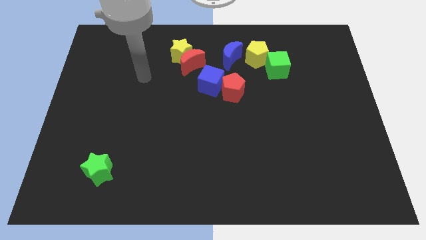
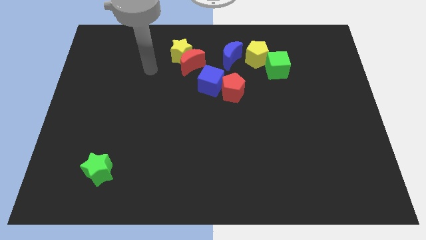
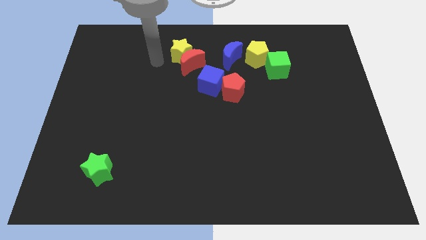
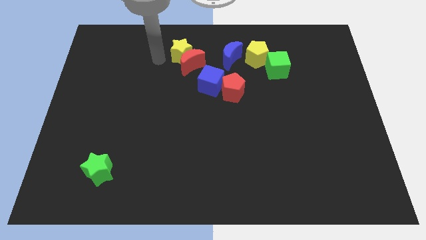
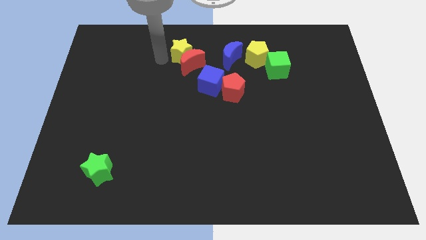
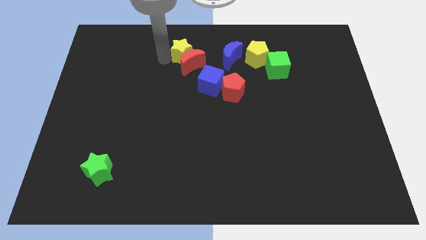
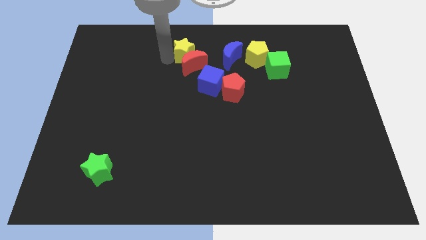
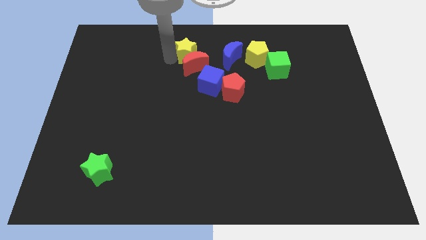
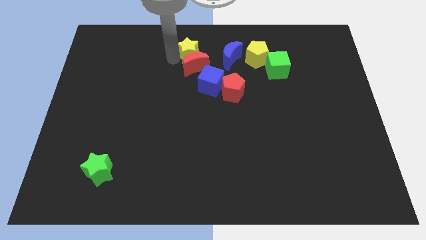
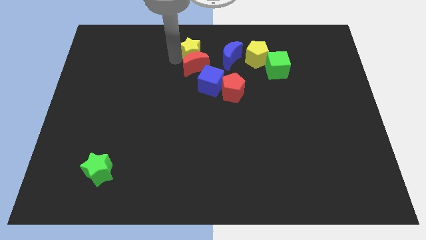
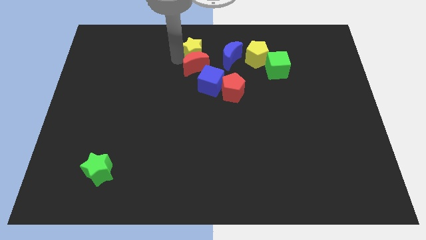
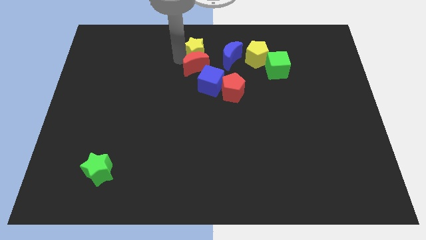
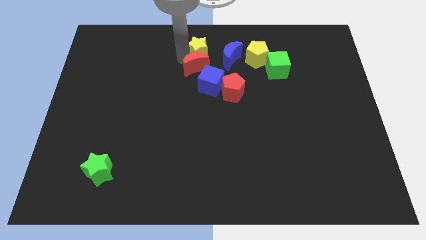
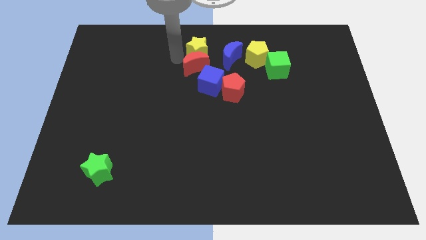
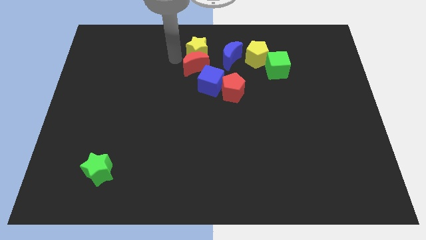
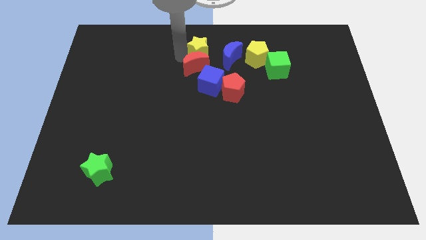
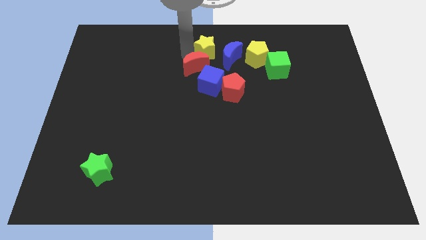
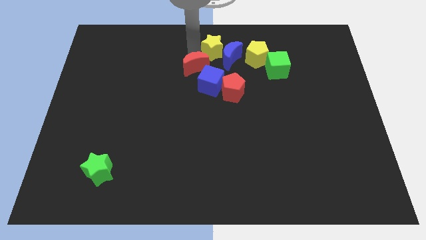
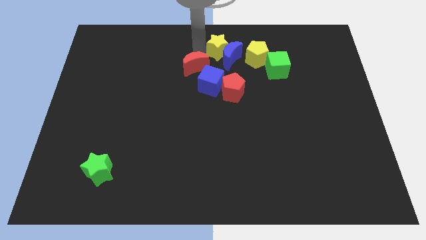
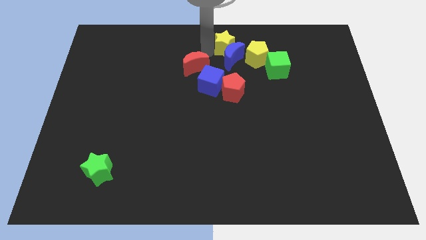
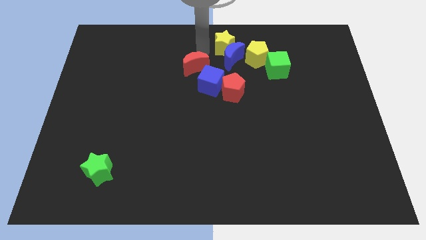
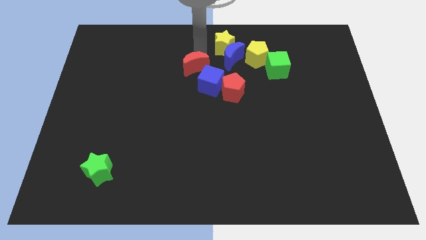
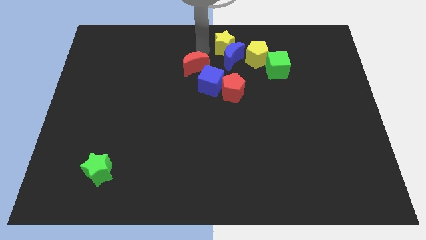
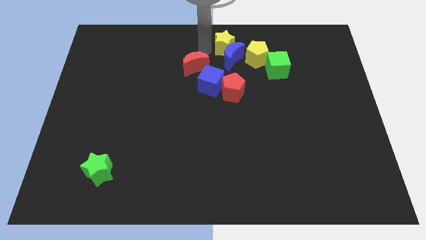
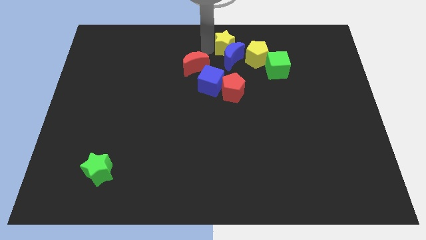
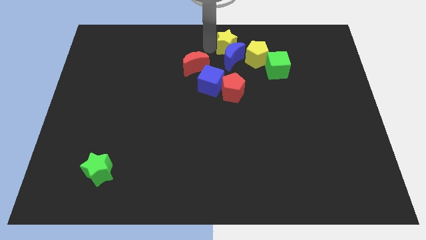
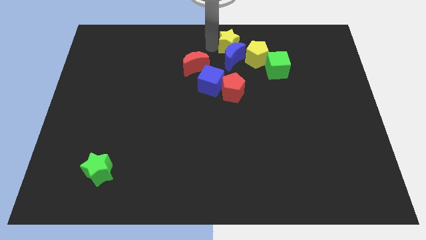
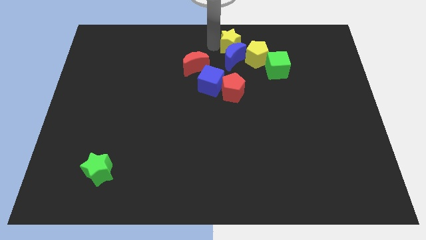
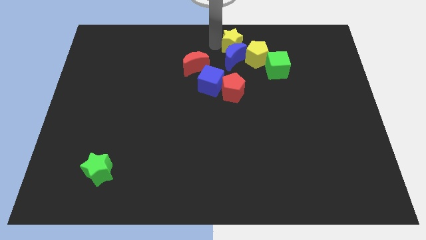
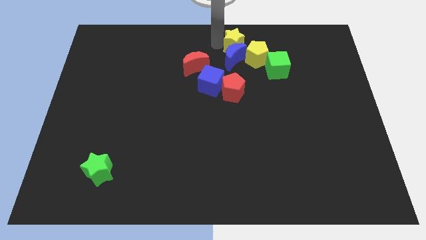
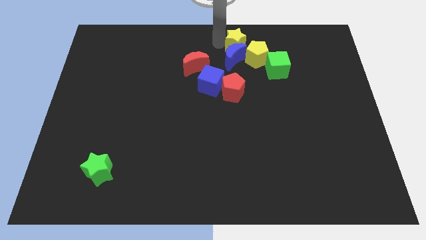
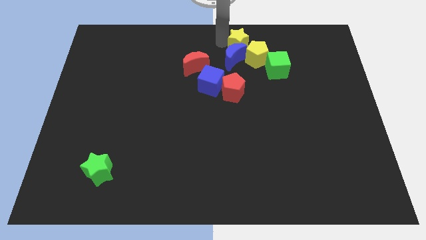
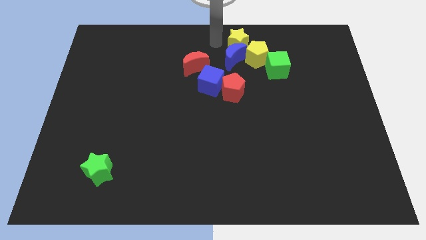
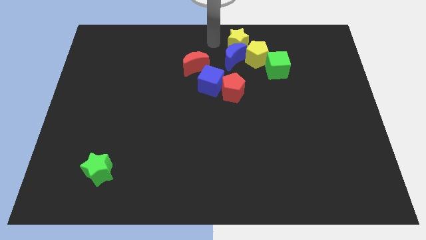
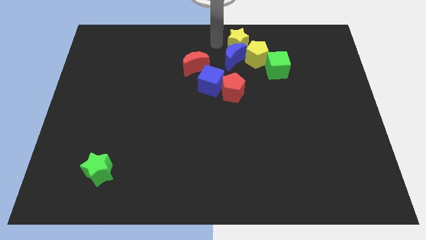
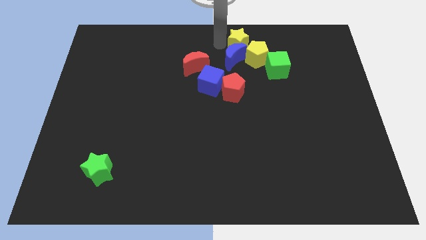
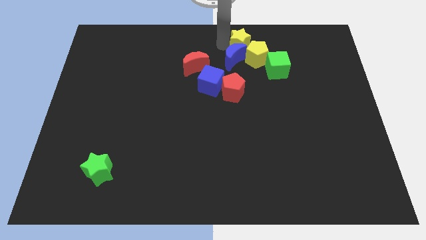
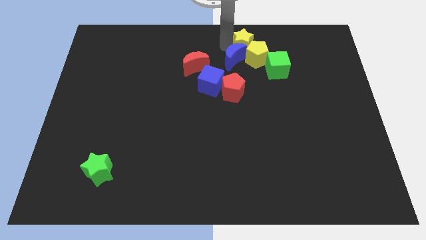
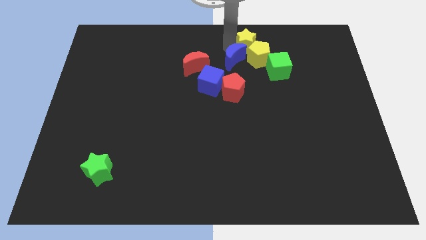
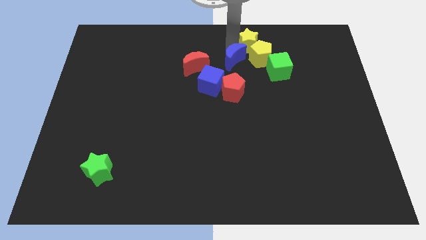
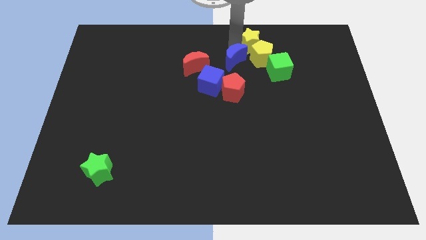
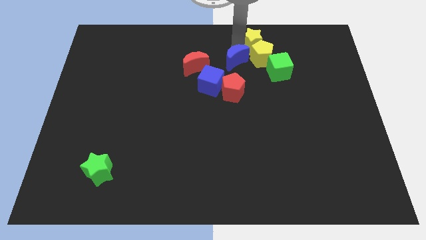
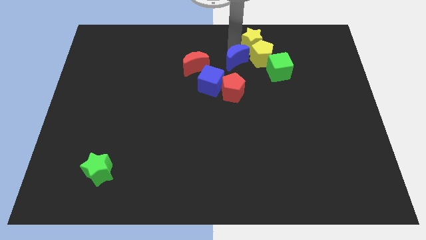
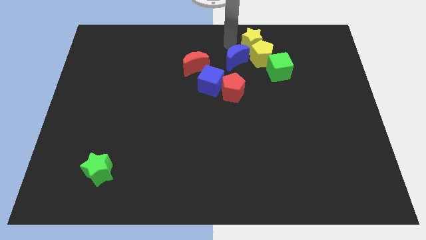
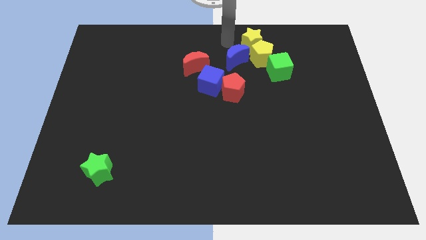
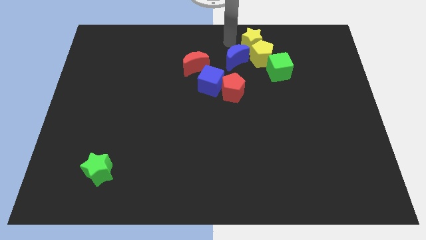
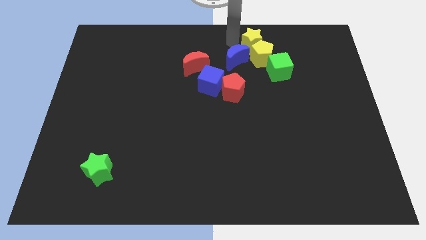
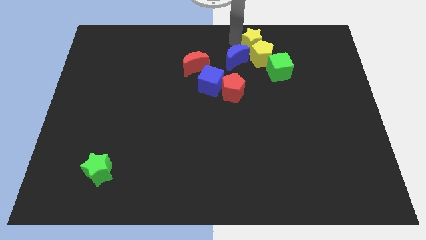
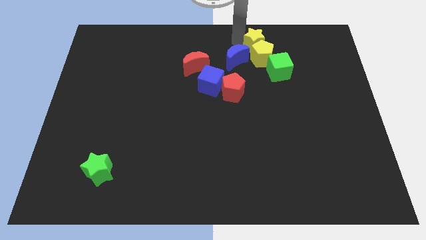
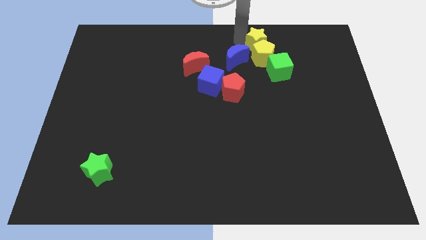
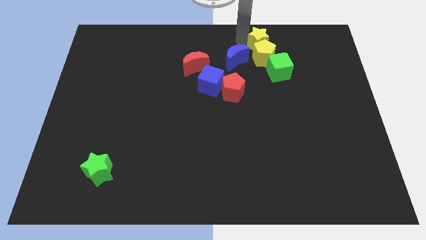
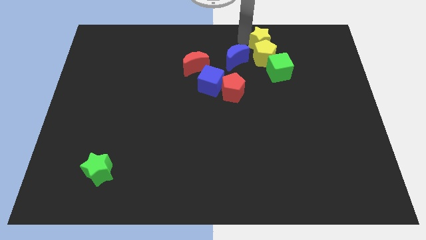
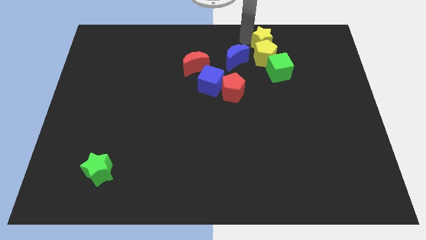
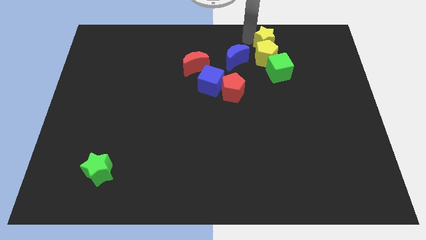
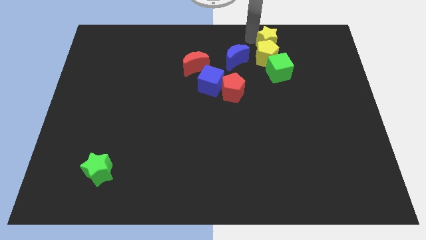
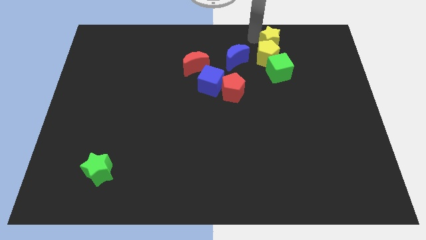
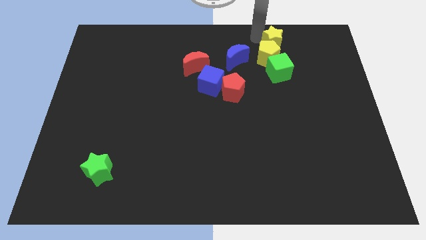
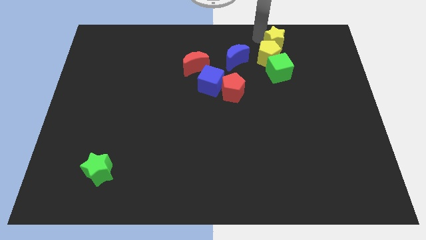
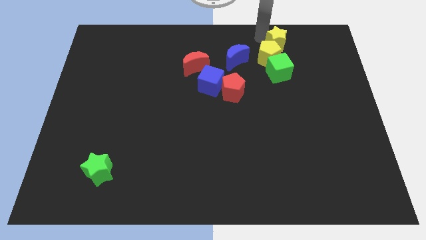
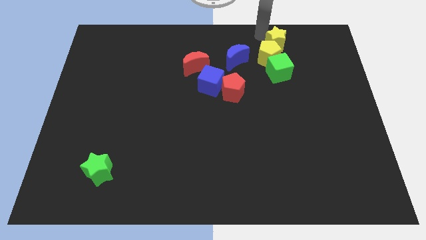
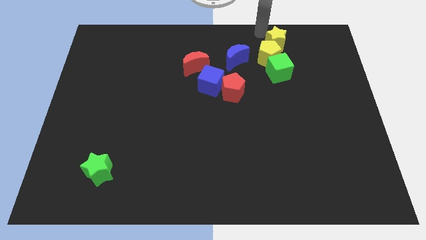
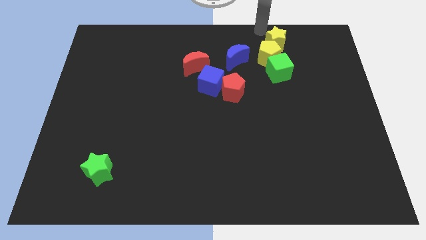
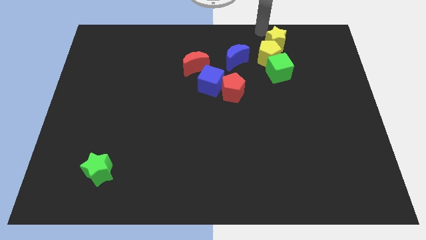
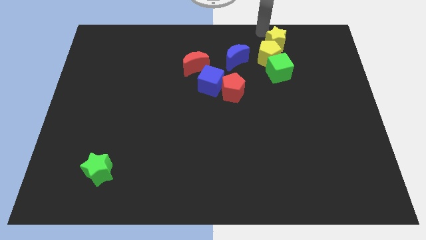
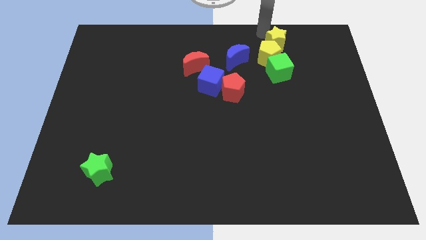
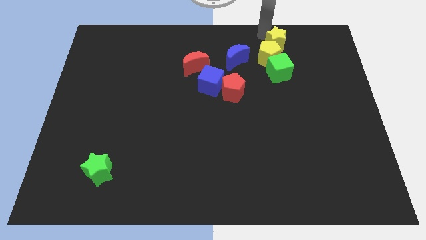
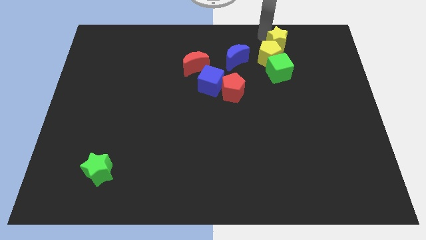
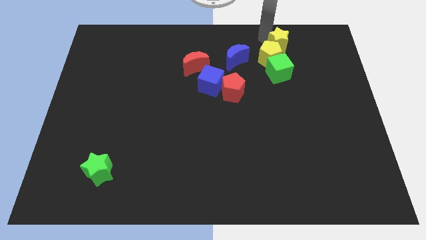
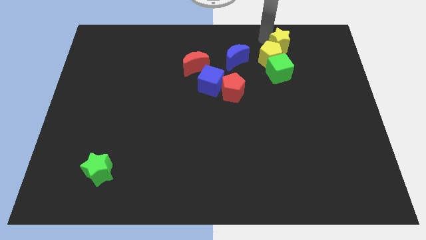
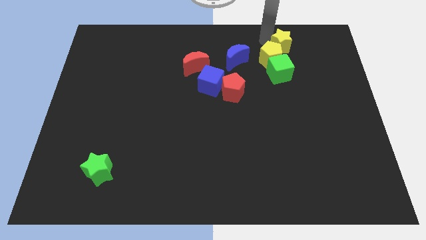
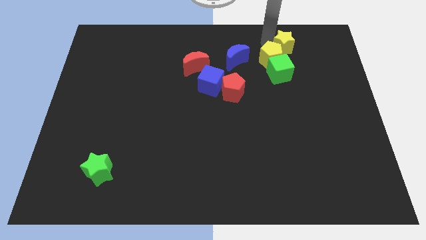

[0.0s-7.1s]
slide the yellow star to the right side of the yellow pentagon
